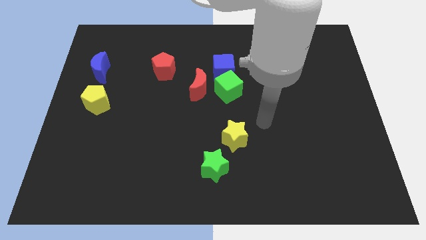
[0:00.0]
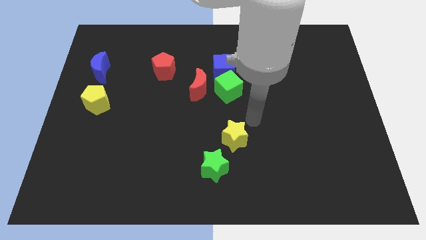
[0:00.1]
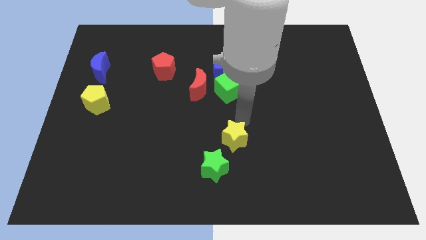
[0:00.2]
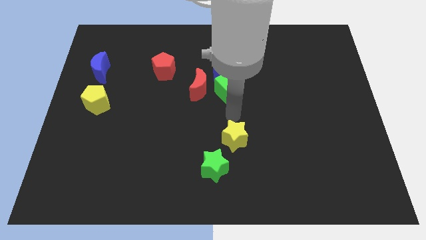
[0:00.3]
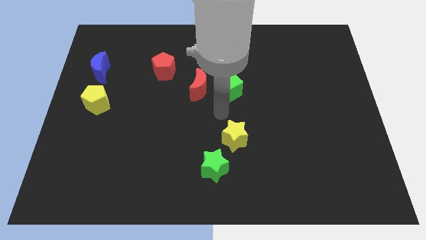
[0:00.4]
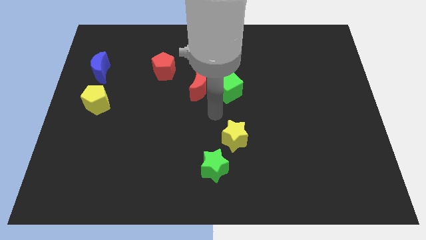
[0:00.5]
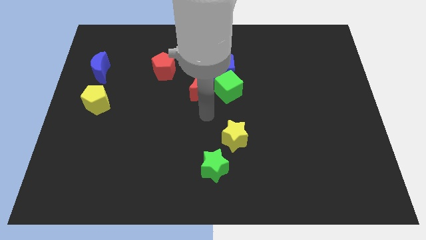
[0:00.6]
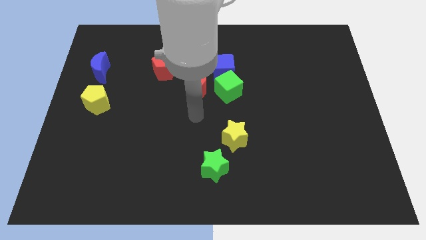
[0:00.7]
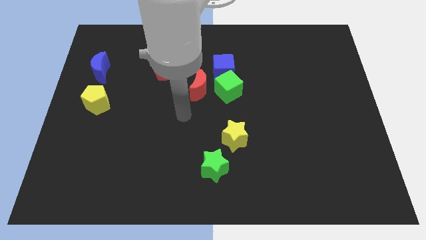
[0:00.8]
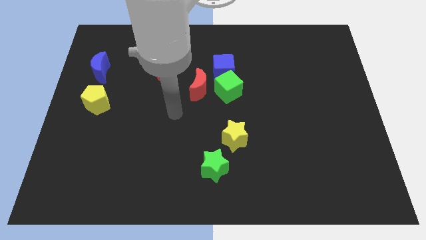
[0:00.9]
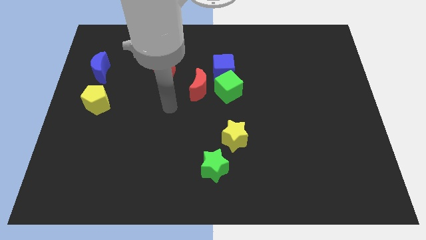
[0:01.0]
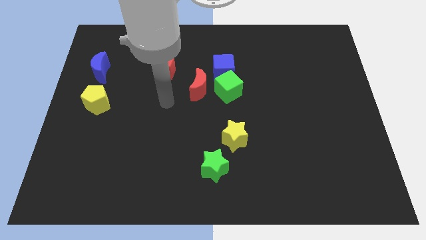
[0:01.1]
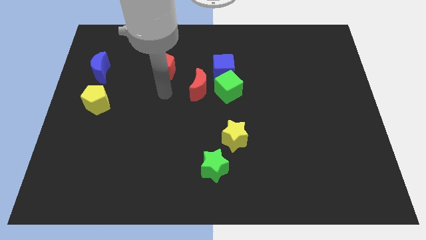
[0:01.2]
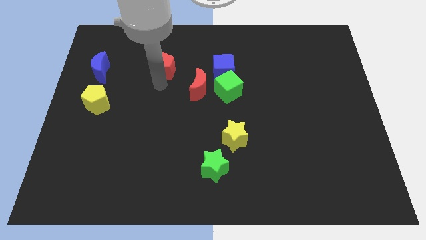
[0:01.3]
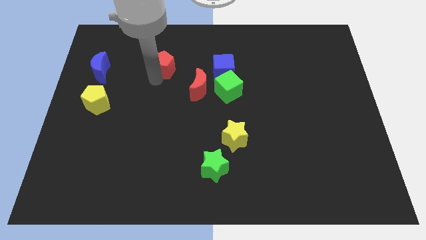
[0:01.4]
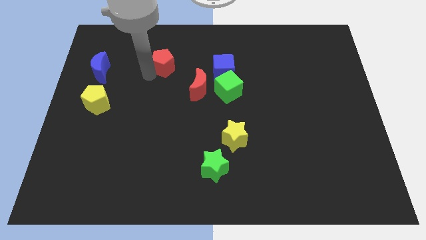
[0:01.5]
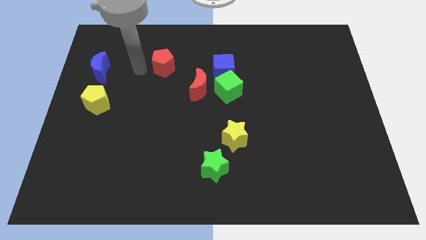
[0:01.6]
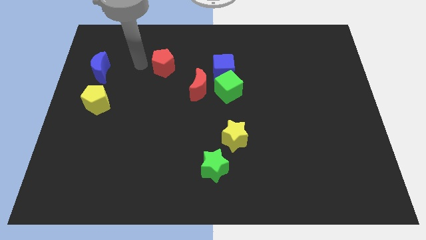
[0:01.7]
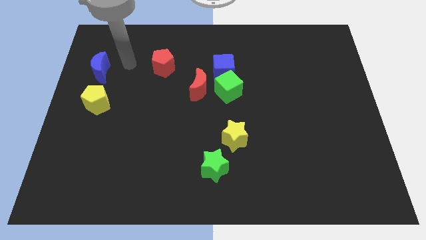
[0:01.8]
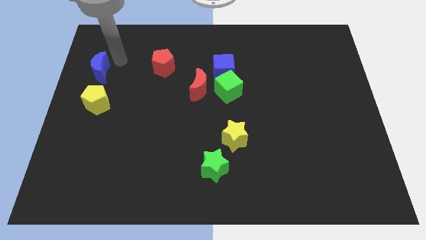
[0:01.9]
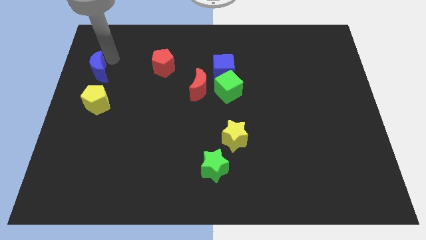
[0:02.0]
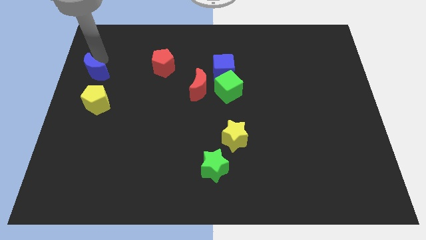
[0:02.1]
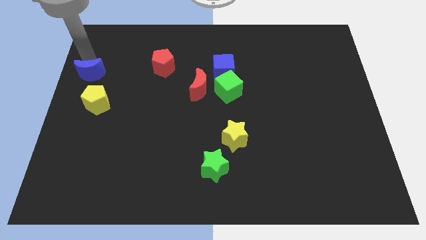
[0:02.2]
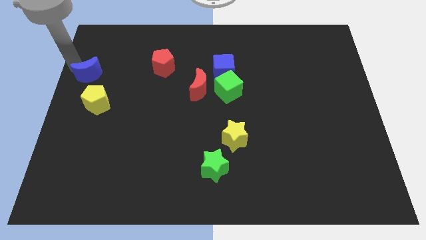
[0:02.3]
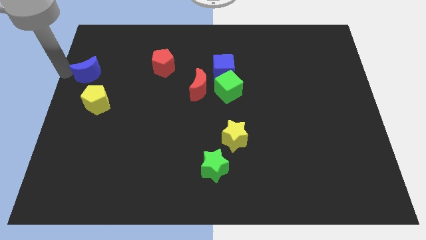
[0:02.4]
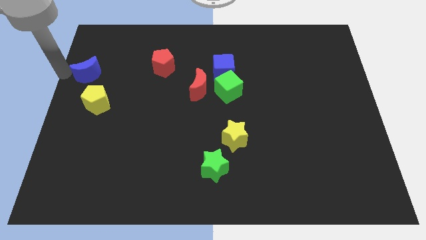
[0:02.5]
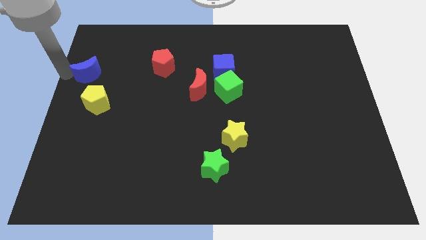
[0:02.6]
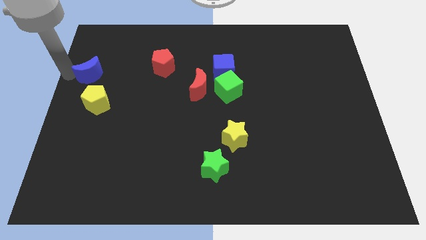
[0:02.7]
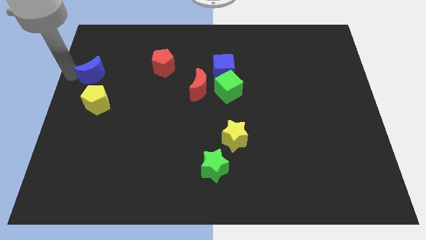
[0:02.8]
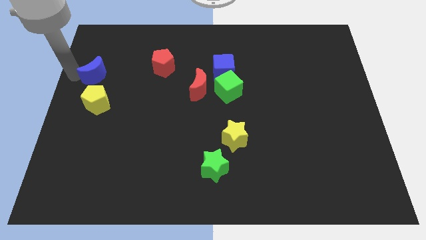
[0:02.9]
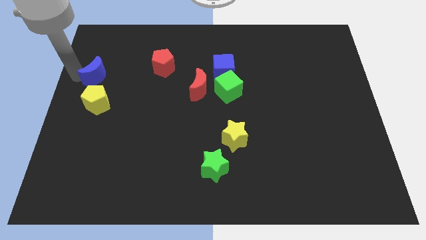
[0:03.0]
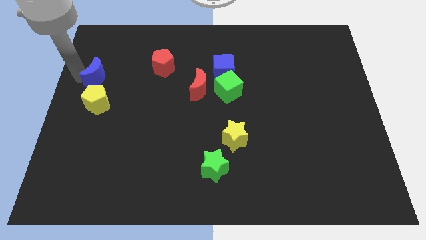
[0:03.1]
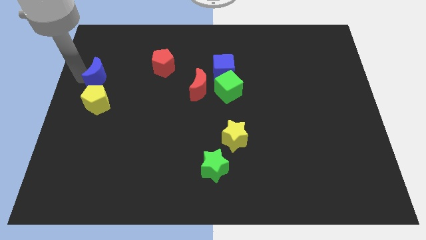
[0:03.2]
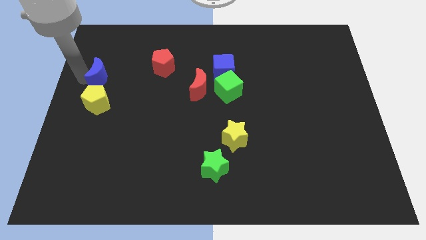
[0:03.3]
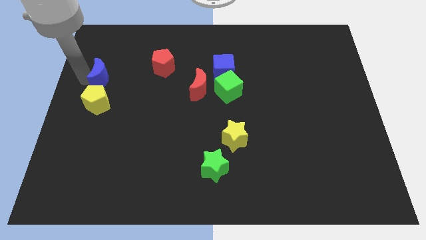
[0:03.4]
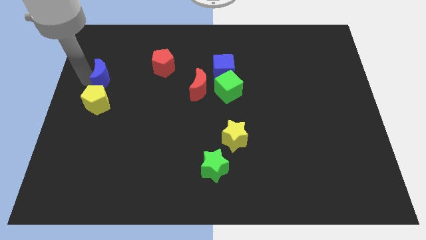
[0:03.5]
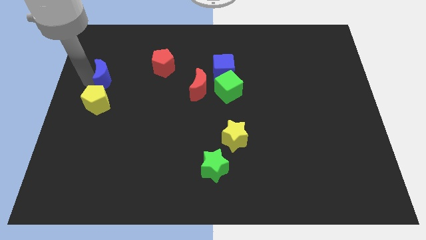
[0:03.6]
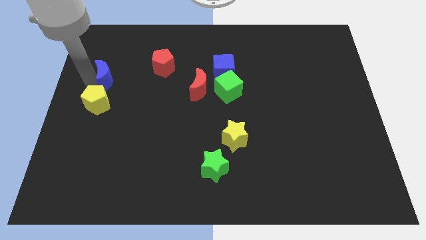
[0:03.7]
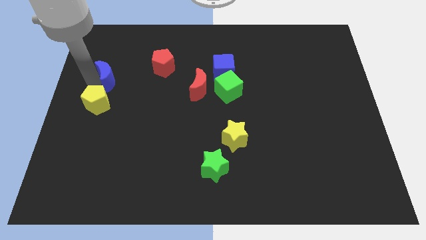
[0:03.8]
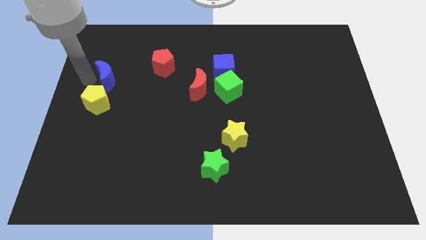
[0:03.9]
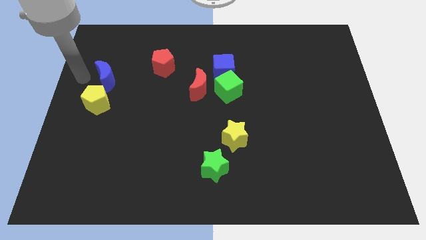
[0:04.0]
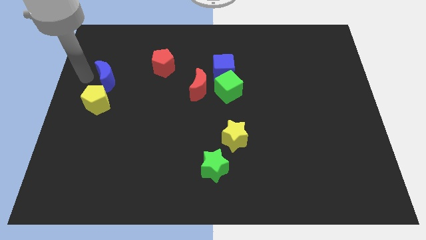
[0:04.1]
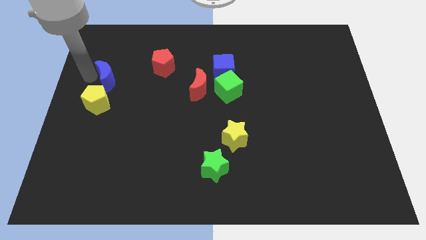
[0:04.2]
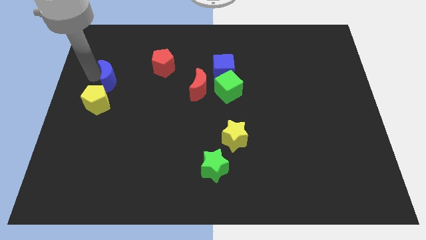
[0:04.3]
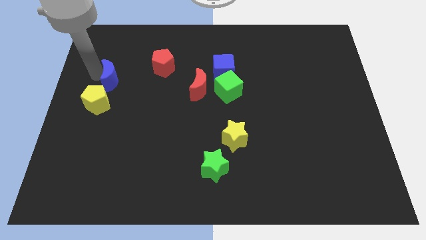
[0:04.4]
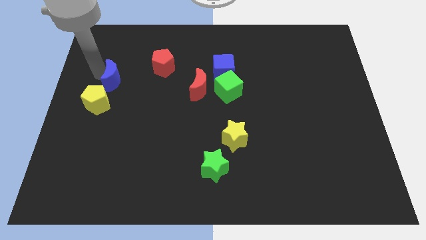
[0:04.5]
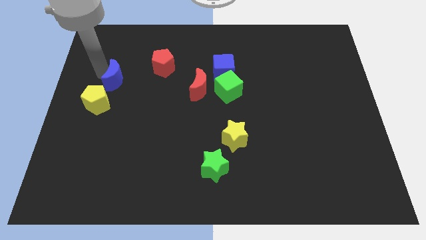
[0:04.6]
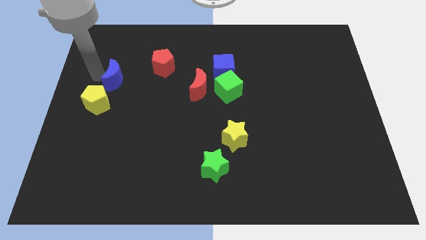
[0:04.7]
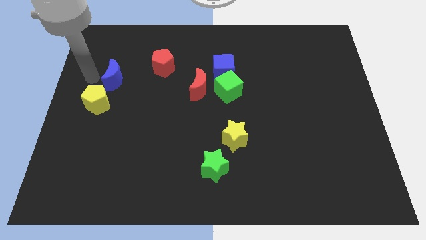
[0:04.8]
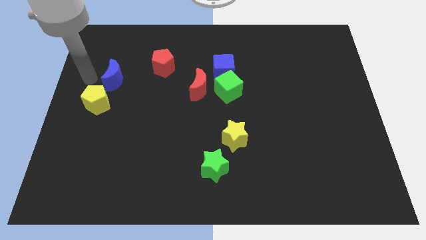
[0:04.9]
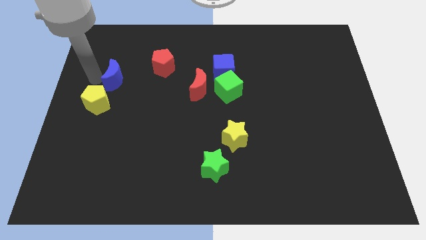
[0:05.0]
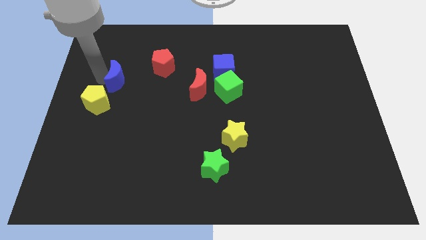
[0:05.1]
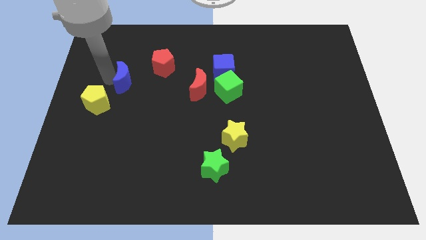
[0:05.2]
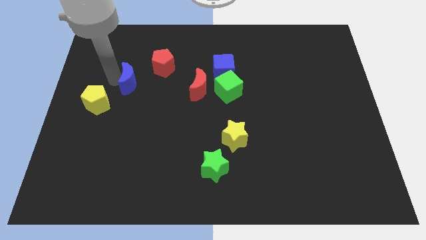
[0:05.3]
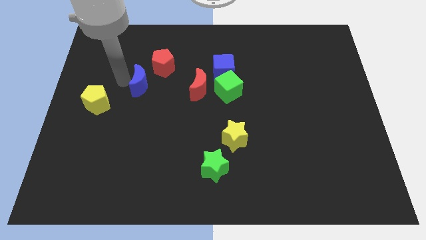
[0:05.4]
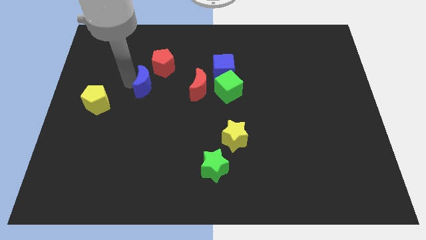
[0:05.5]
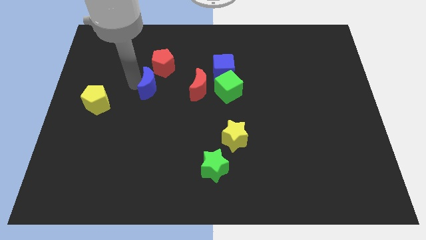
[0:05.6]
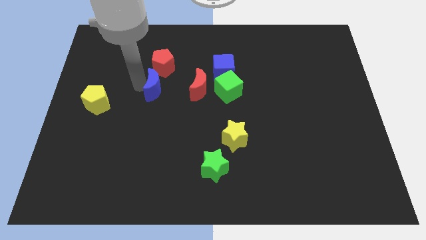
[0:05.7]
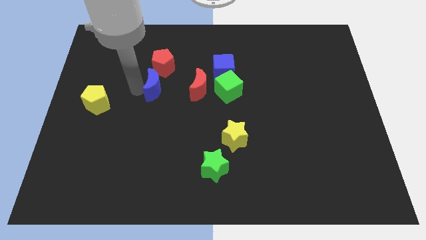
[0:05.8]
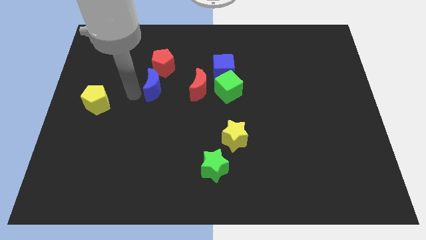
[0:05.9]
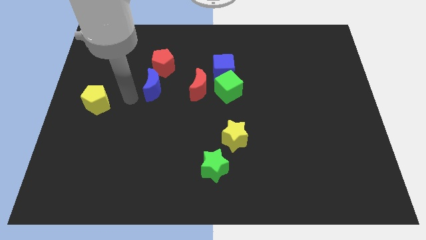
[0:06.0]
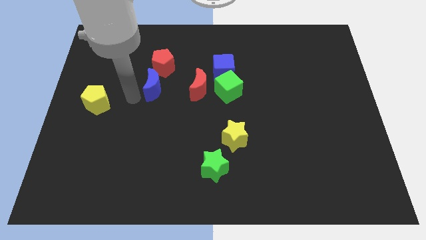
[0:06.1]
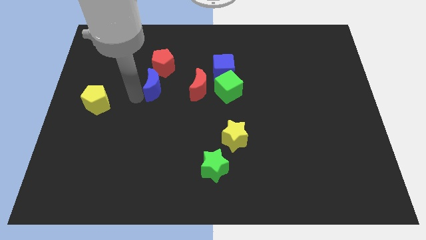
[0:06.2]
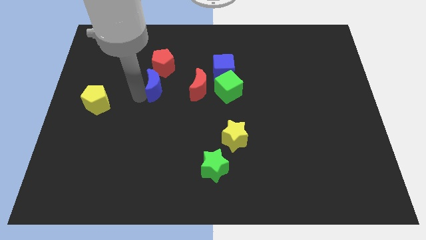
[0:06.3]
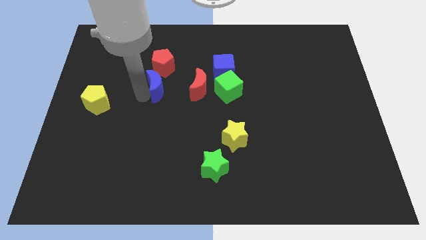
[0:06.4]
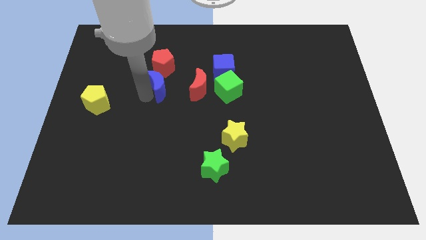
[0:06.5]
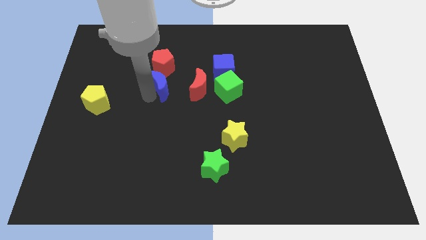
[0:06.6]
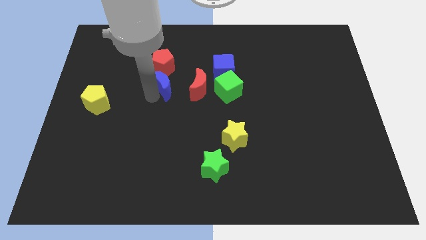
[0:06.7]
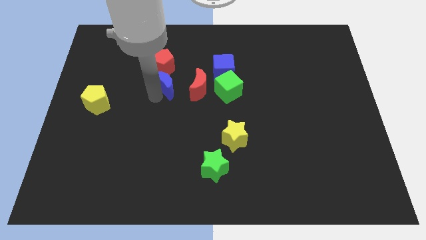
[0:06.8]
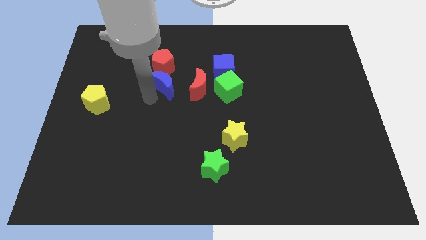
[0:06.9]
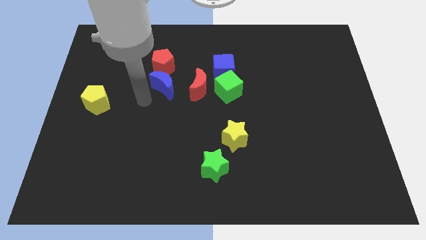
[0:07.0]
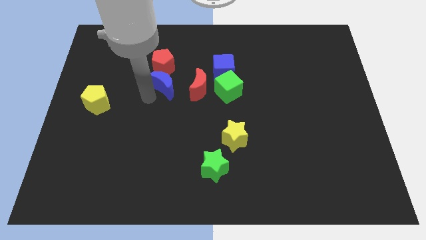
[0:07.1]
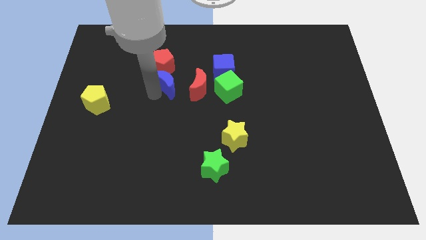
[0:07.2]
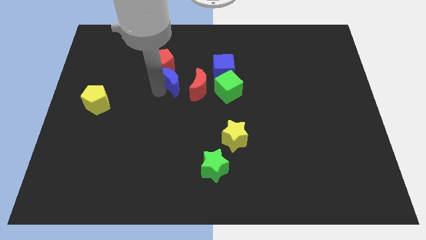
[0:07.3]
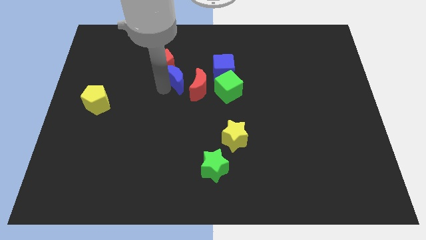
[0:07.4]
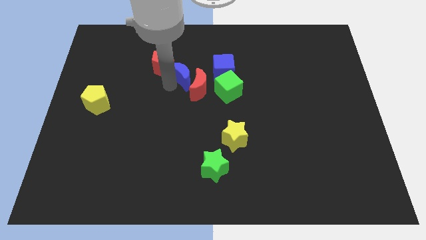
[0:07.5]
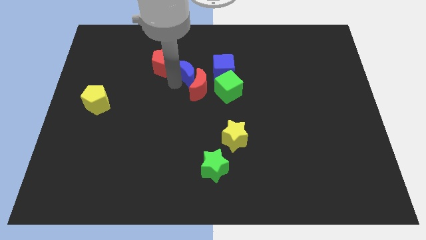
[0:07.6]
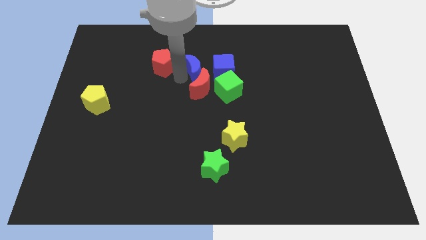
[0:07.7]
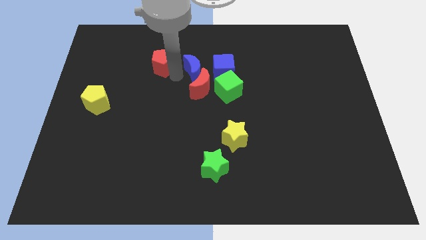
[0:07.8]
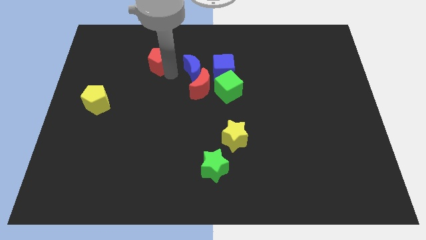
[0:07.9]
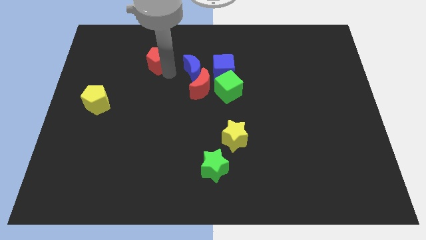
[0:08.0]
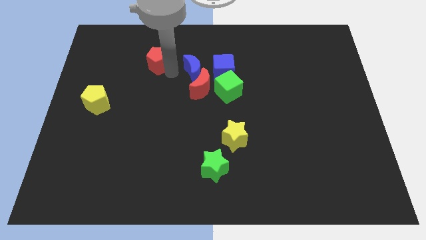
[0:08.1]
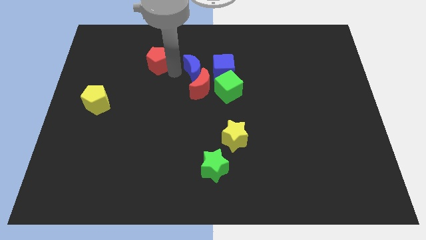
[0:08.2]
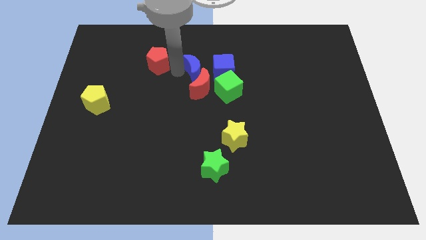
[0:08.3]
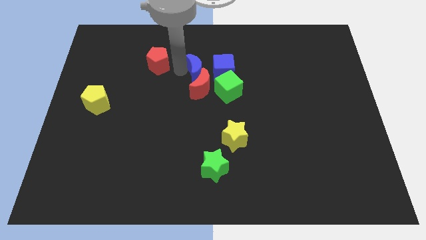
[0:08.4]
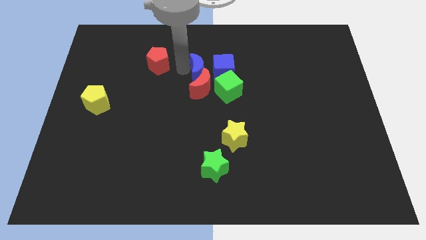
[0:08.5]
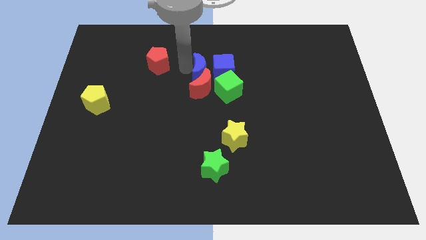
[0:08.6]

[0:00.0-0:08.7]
move the blue moon towards the blue cube
